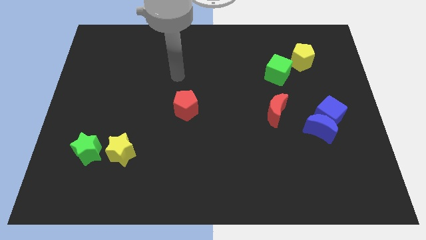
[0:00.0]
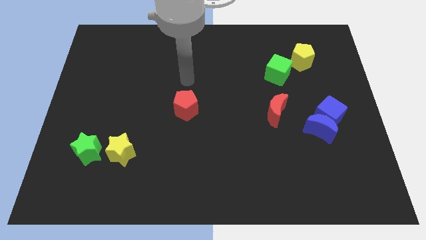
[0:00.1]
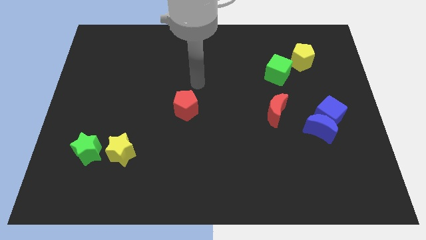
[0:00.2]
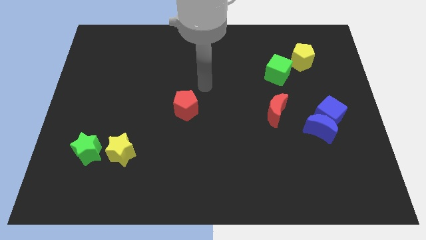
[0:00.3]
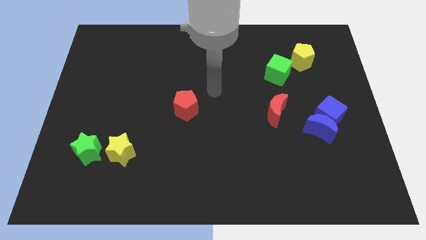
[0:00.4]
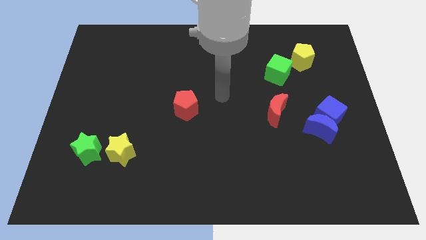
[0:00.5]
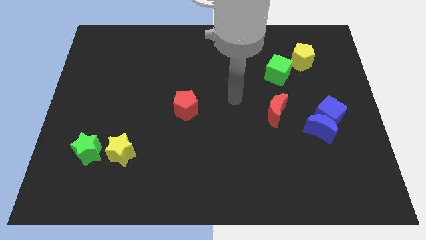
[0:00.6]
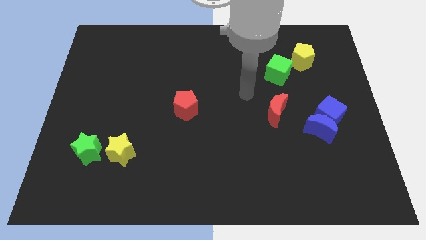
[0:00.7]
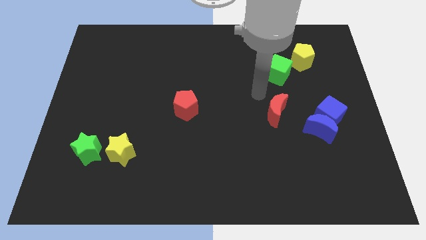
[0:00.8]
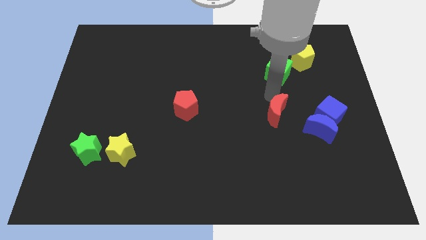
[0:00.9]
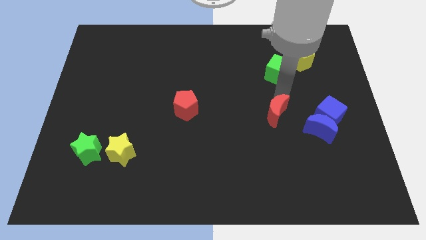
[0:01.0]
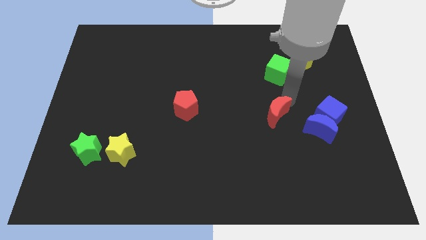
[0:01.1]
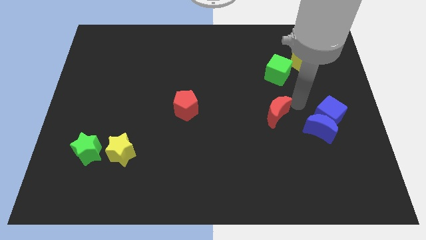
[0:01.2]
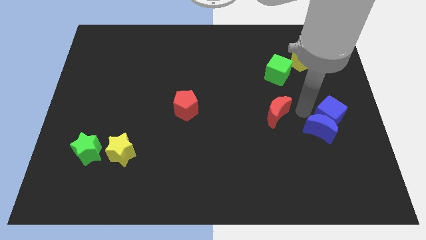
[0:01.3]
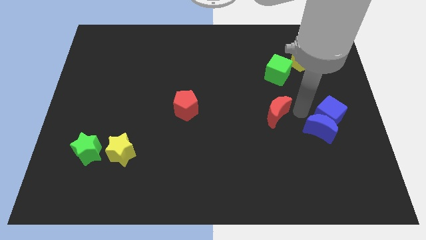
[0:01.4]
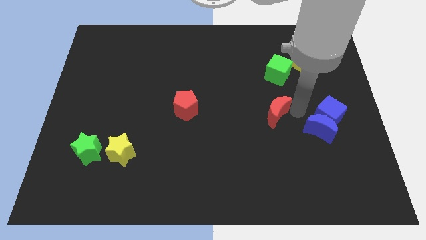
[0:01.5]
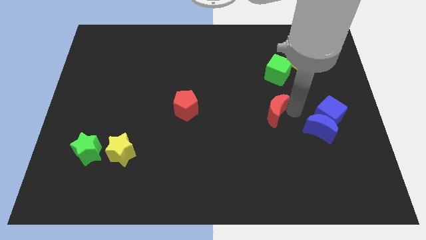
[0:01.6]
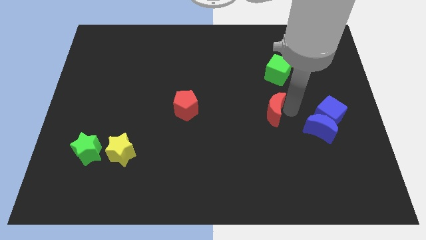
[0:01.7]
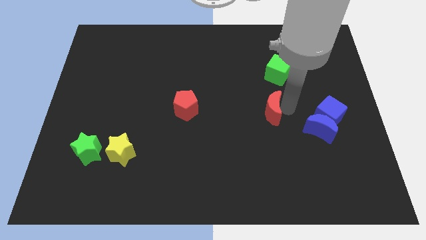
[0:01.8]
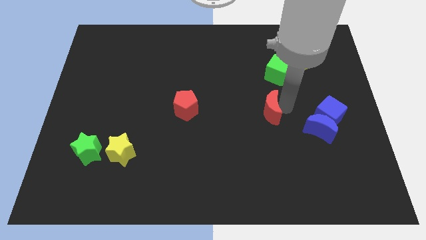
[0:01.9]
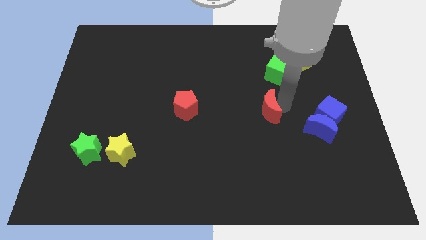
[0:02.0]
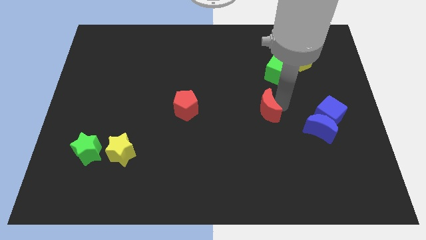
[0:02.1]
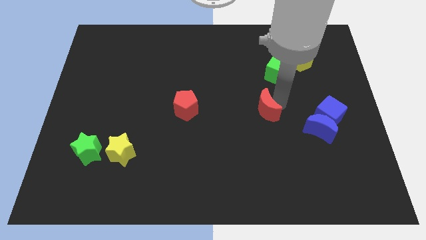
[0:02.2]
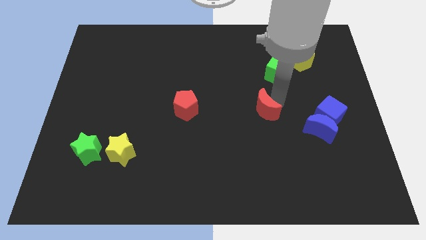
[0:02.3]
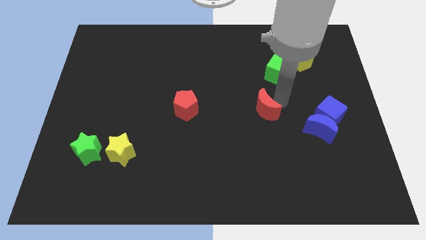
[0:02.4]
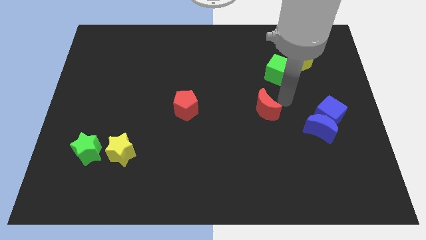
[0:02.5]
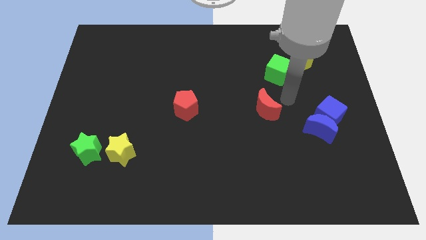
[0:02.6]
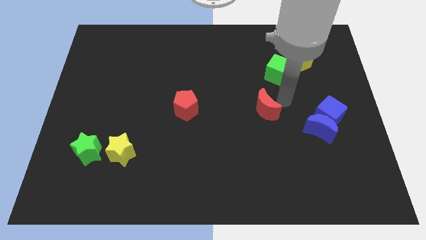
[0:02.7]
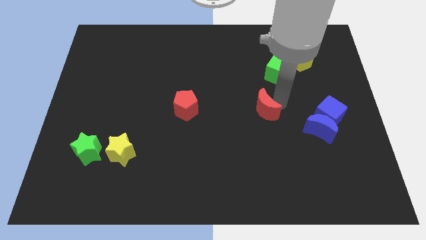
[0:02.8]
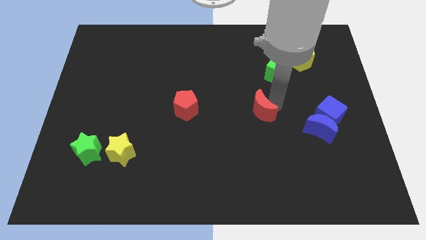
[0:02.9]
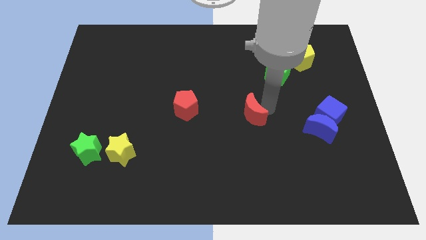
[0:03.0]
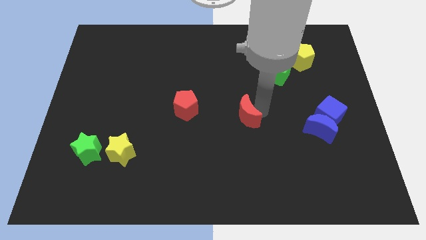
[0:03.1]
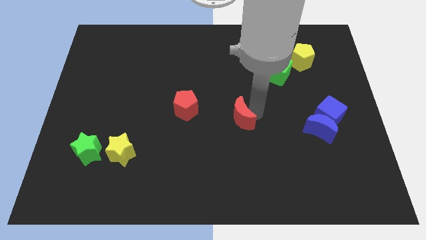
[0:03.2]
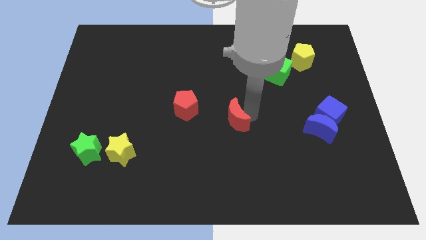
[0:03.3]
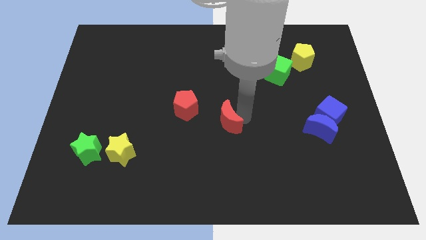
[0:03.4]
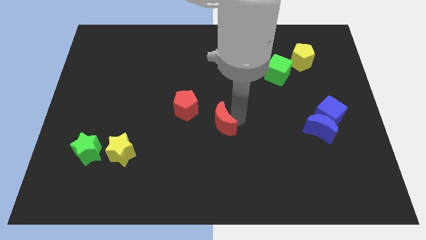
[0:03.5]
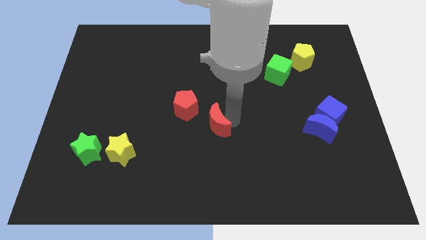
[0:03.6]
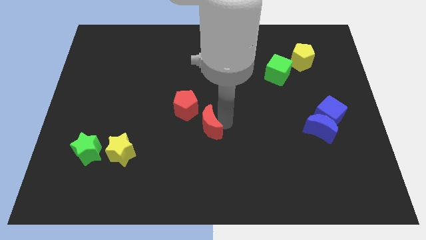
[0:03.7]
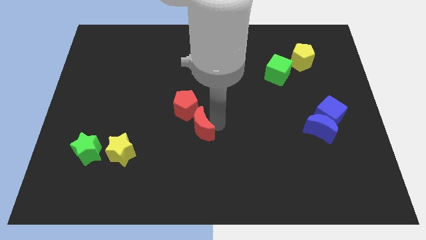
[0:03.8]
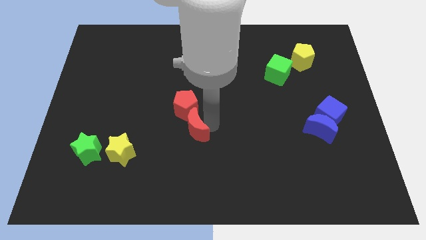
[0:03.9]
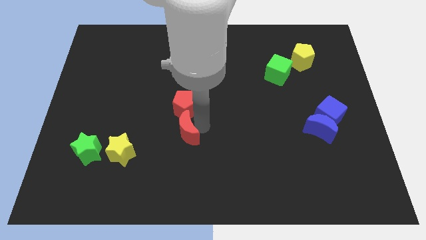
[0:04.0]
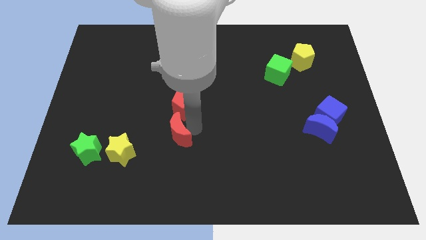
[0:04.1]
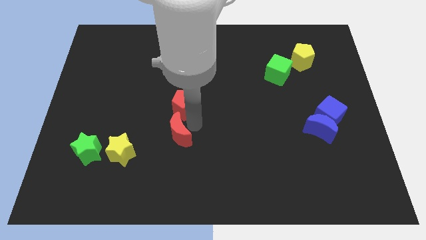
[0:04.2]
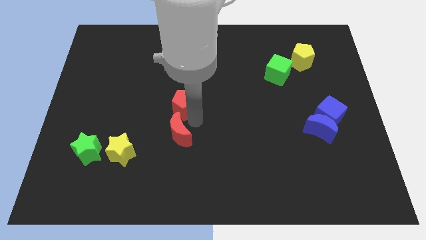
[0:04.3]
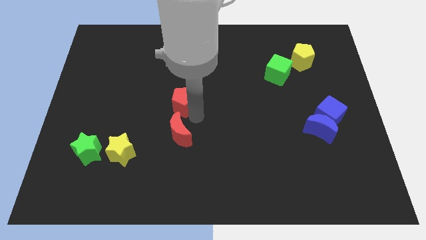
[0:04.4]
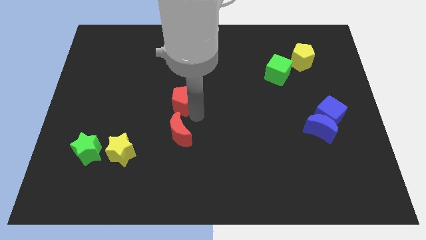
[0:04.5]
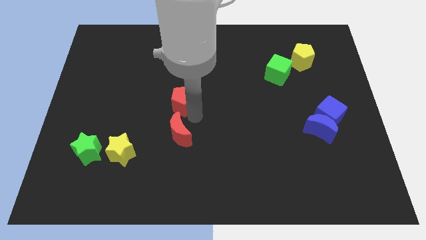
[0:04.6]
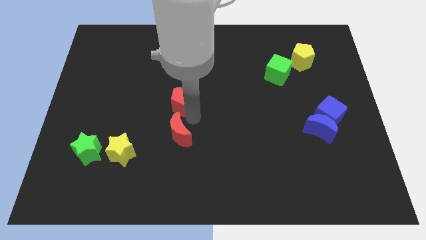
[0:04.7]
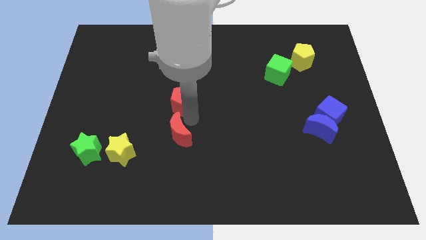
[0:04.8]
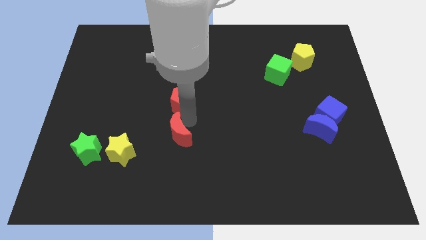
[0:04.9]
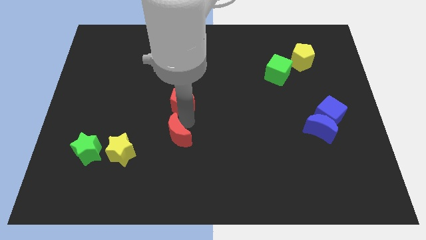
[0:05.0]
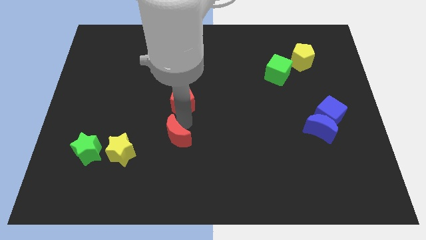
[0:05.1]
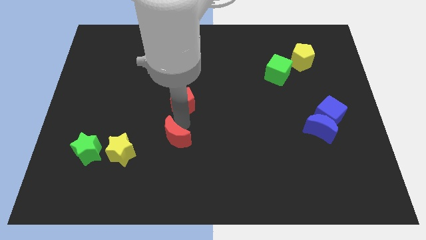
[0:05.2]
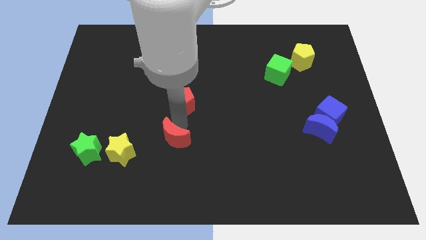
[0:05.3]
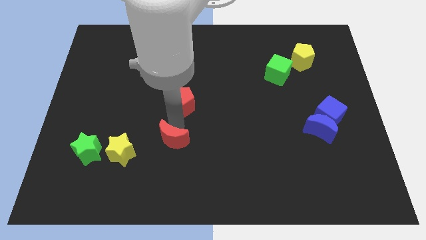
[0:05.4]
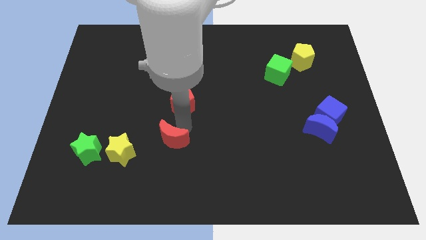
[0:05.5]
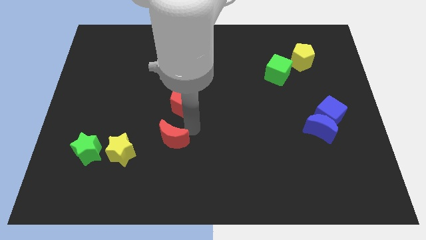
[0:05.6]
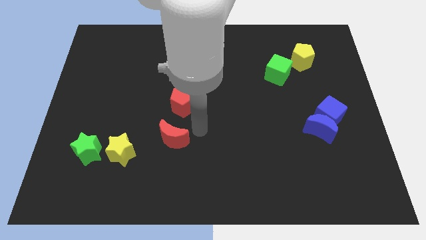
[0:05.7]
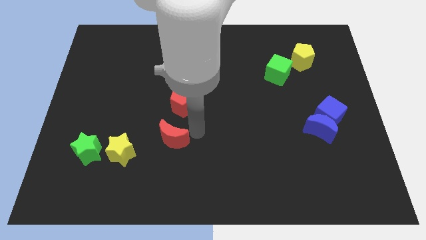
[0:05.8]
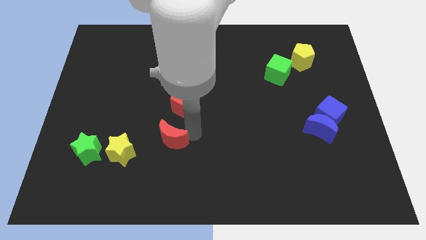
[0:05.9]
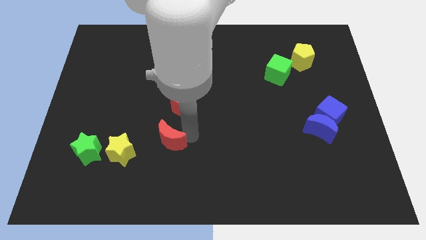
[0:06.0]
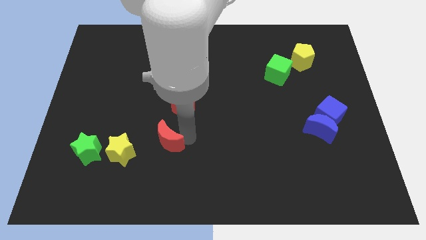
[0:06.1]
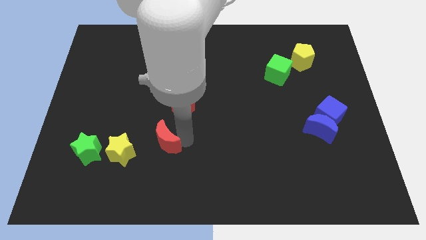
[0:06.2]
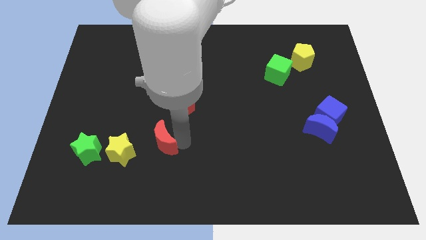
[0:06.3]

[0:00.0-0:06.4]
move the red moon to the right of the green star

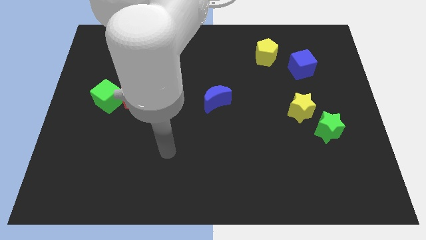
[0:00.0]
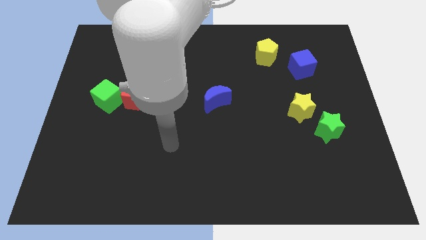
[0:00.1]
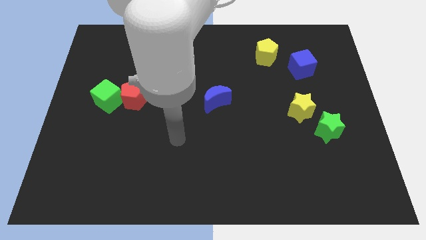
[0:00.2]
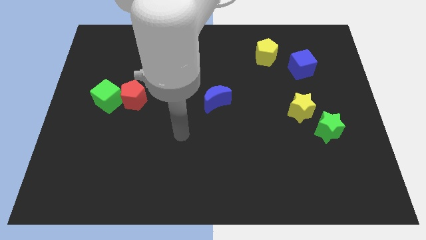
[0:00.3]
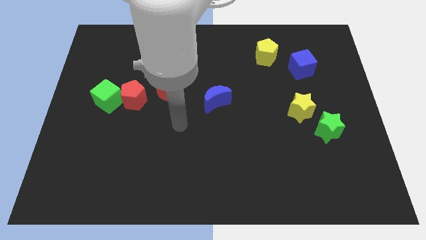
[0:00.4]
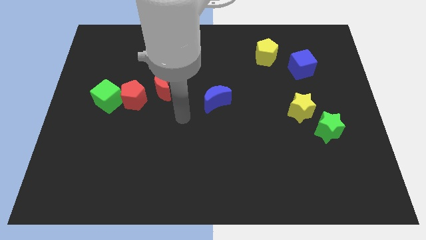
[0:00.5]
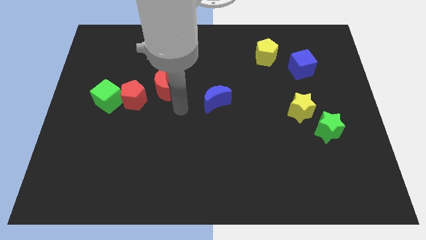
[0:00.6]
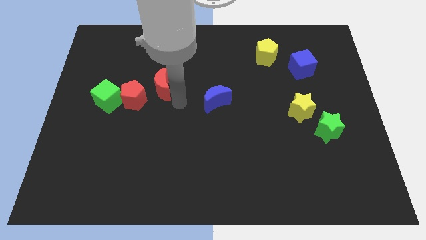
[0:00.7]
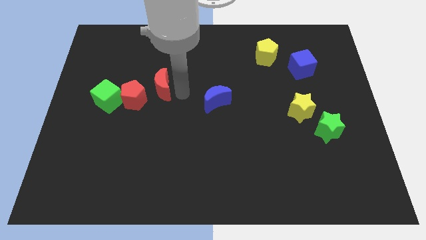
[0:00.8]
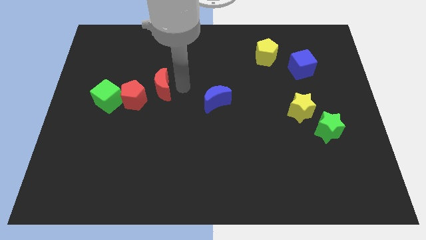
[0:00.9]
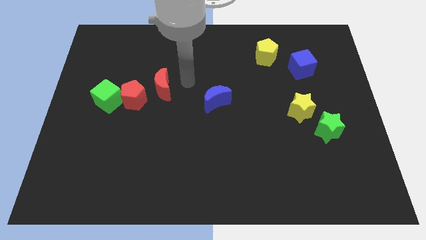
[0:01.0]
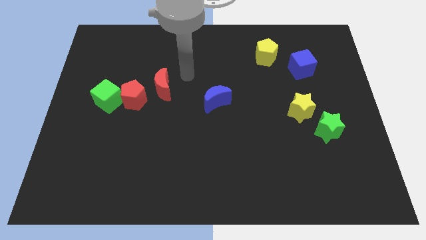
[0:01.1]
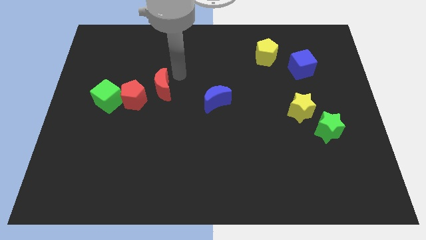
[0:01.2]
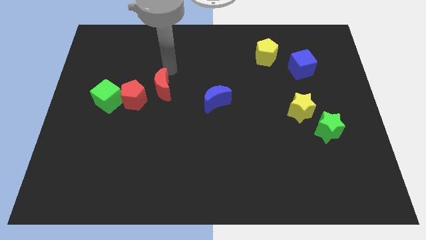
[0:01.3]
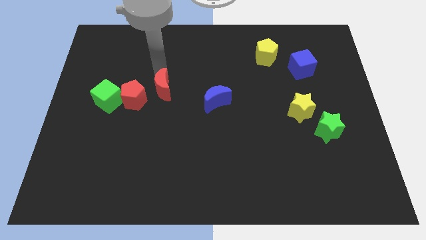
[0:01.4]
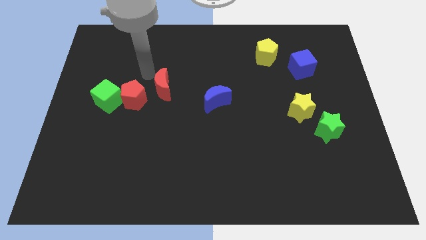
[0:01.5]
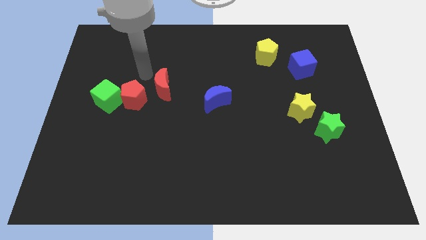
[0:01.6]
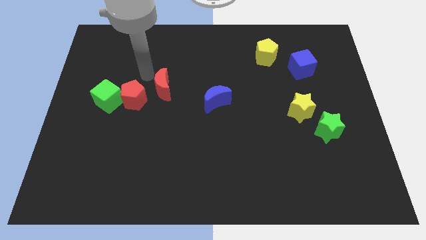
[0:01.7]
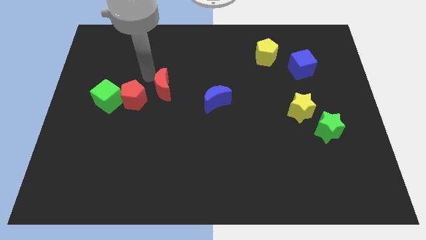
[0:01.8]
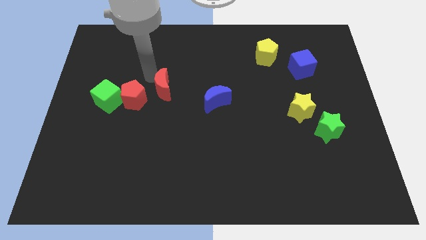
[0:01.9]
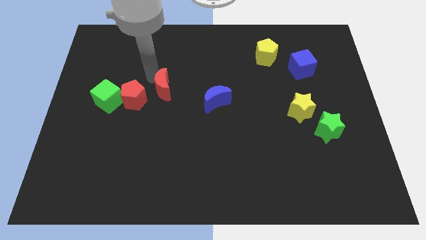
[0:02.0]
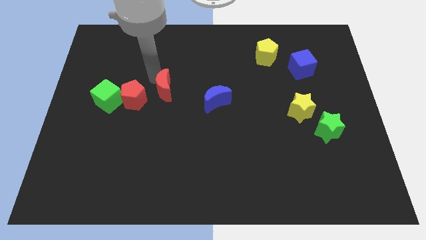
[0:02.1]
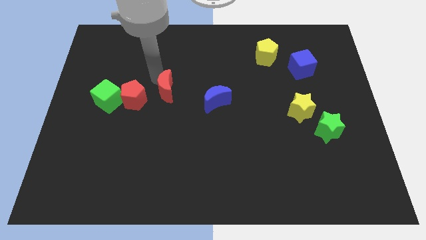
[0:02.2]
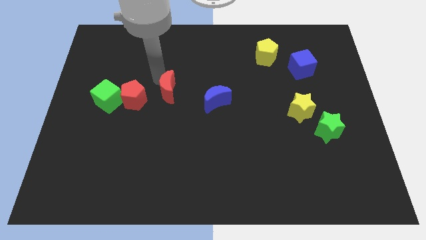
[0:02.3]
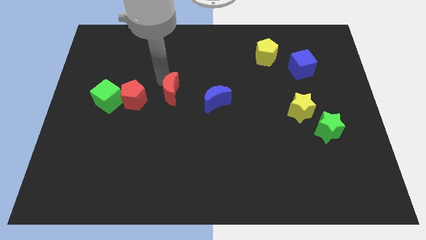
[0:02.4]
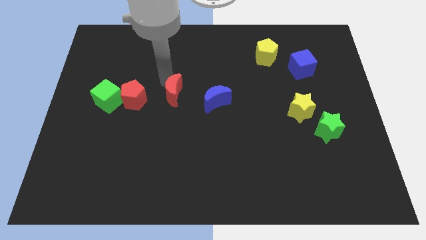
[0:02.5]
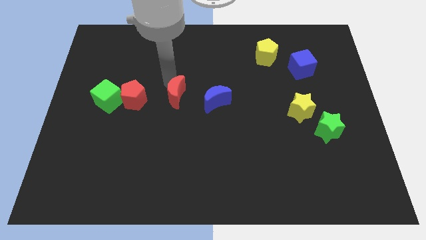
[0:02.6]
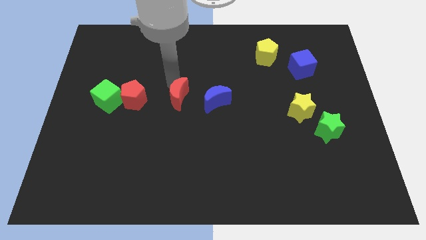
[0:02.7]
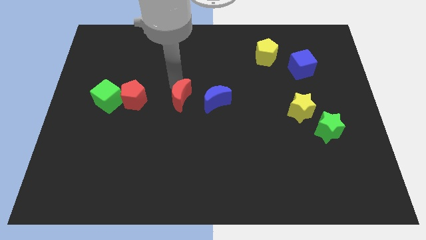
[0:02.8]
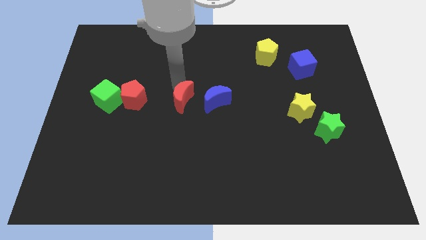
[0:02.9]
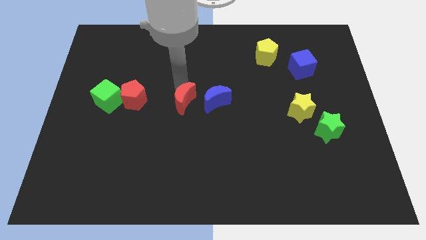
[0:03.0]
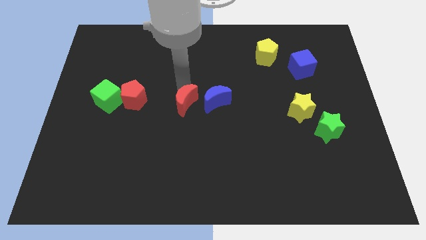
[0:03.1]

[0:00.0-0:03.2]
move the red moon diagonally down and to the left of the blue moon
